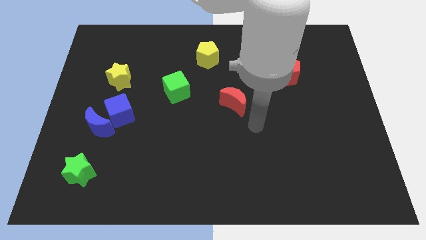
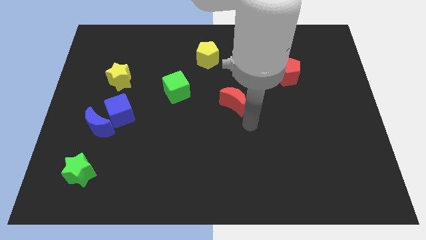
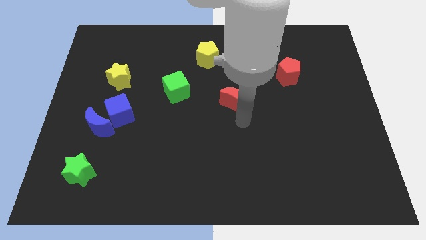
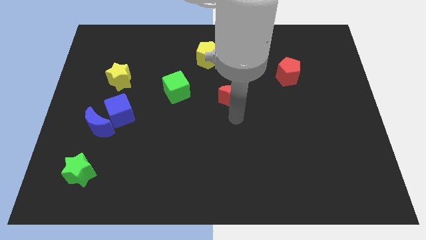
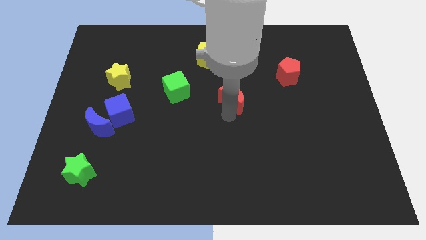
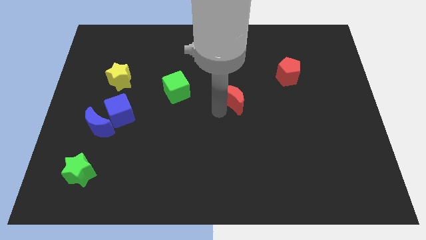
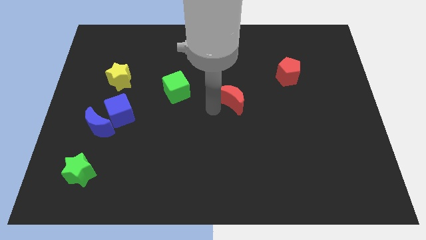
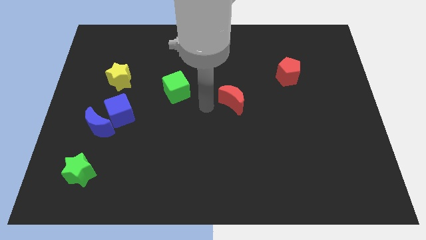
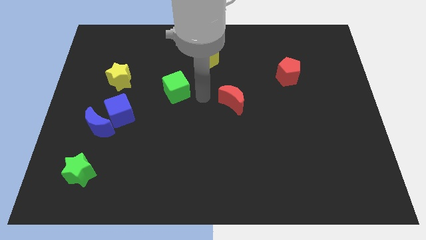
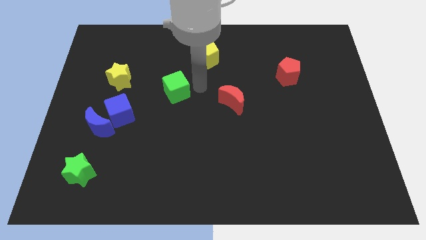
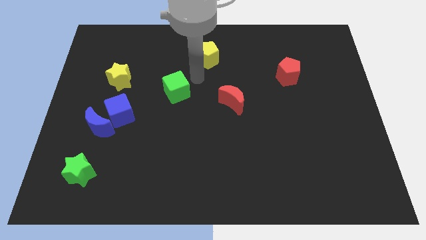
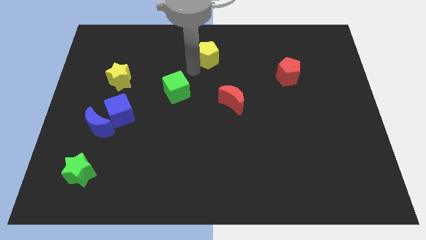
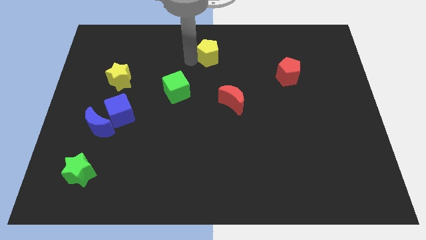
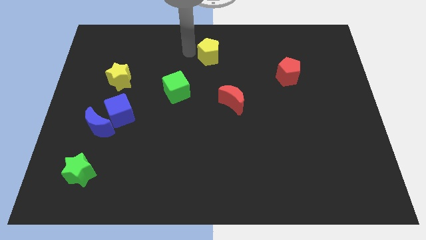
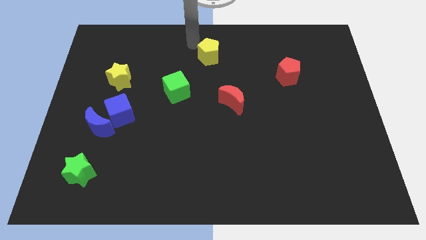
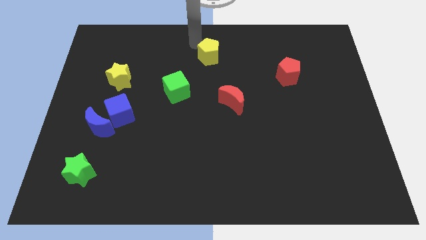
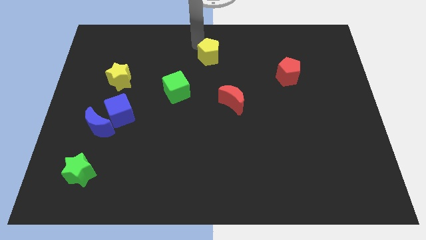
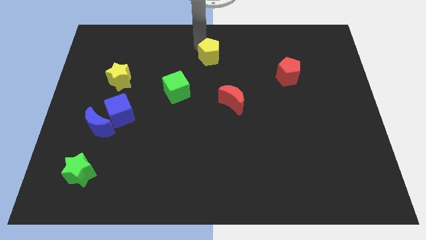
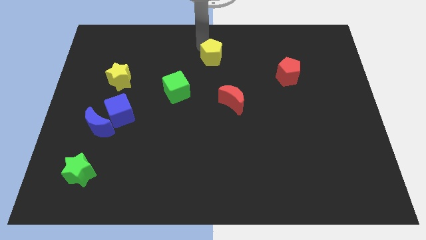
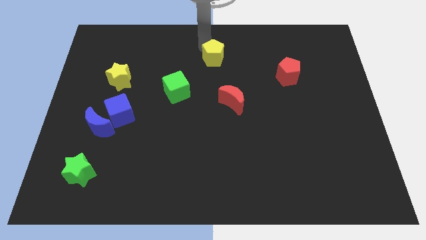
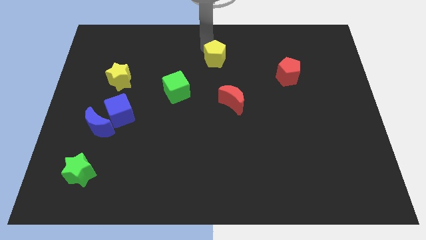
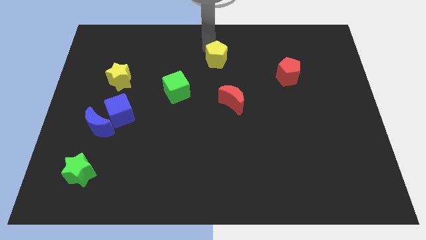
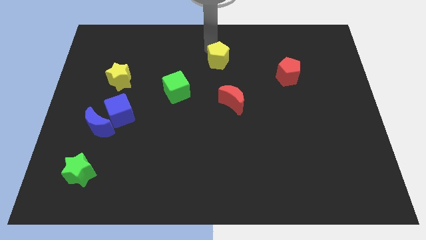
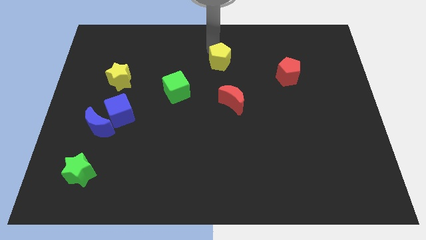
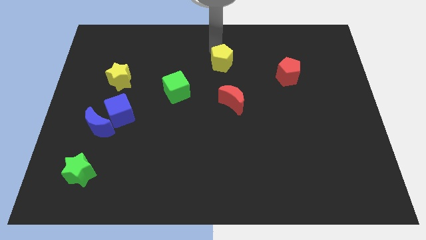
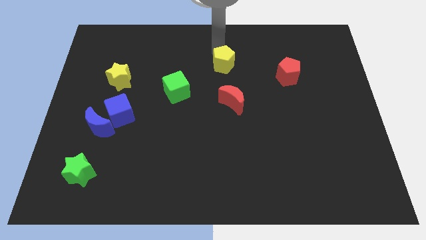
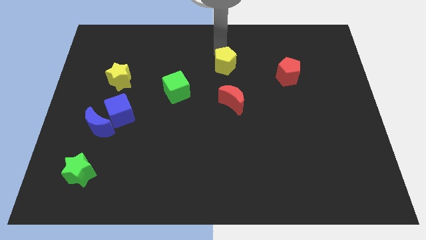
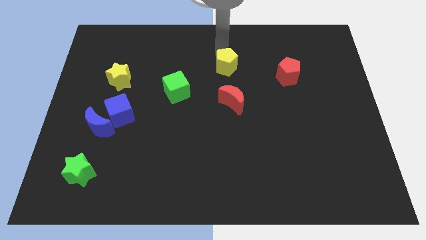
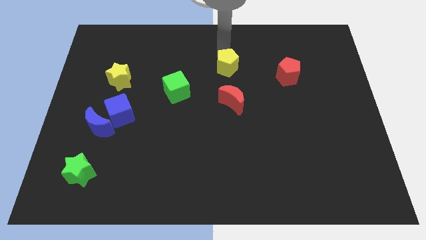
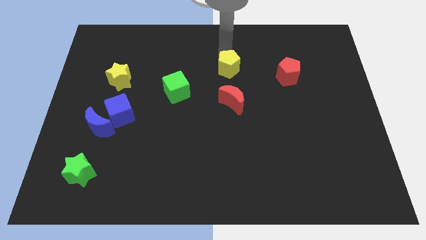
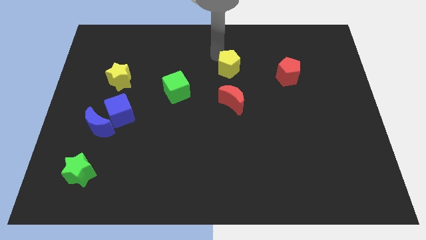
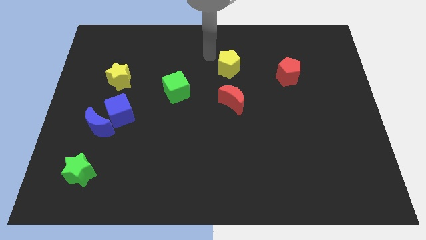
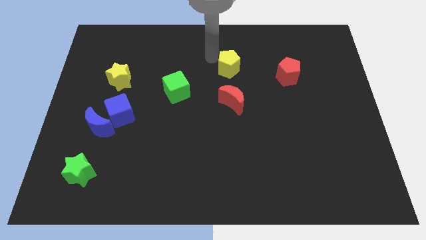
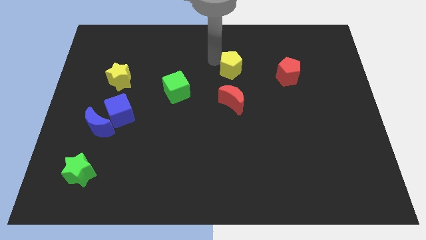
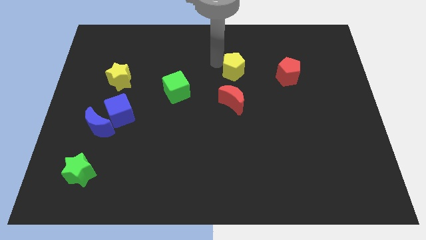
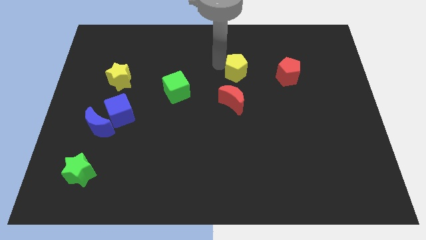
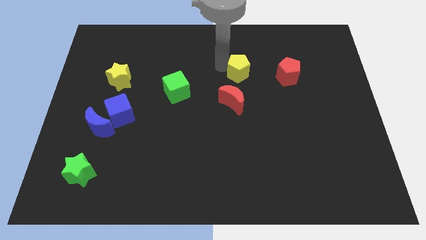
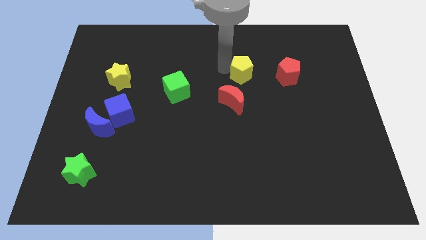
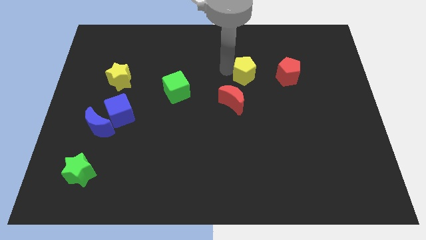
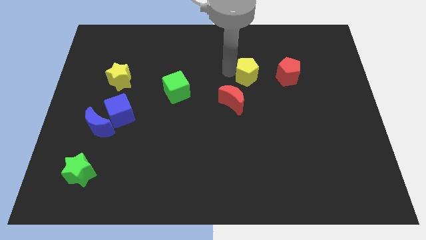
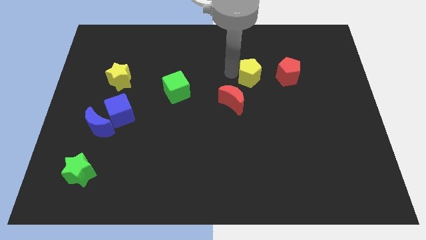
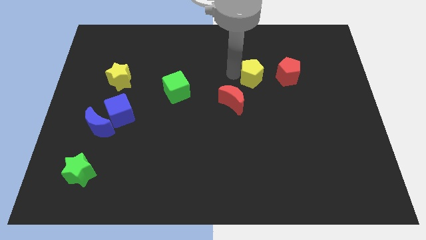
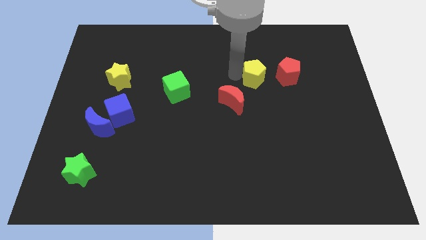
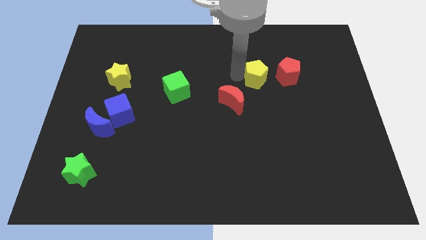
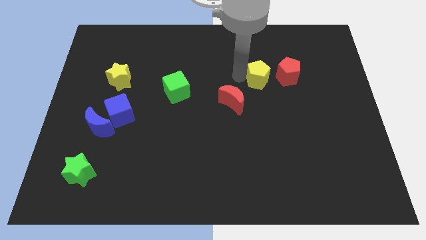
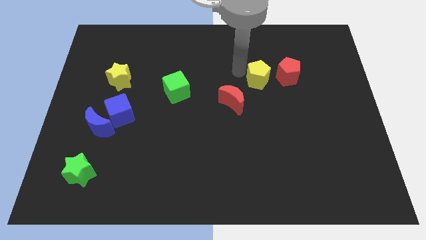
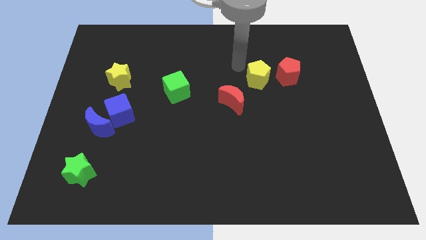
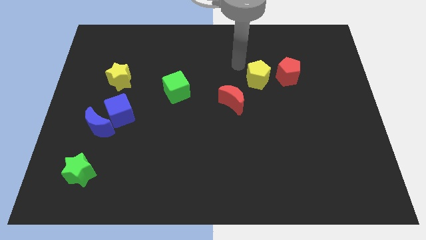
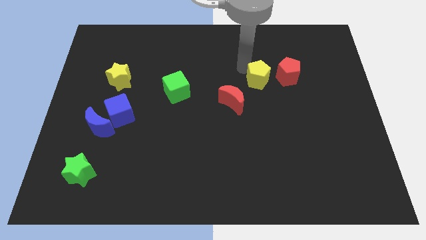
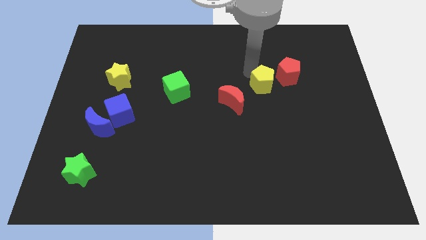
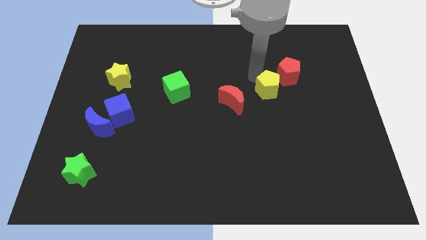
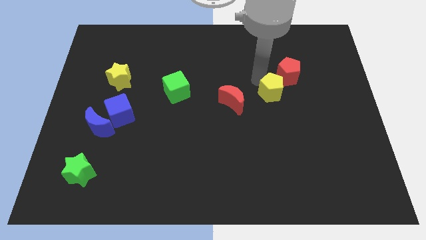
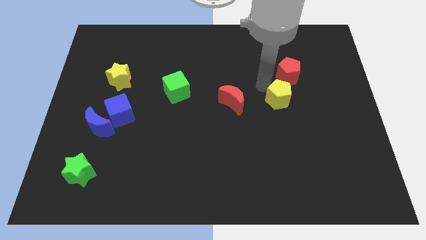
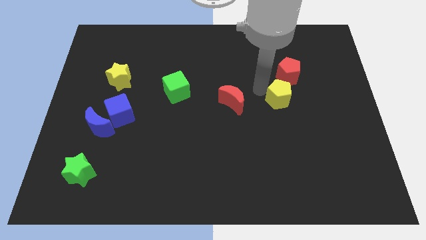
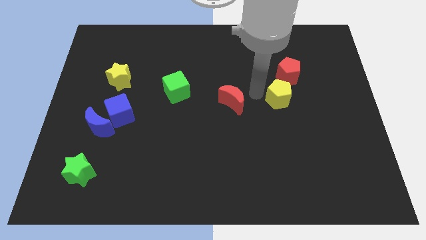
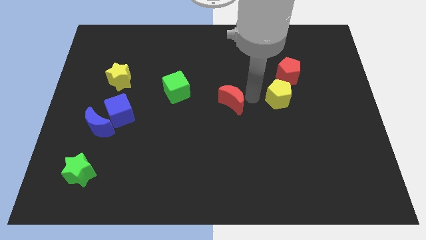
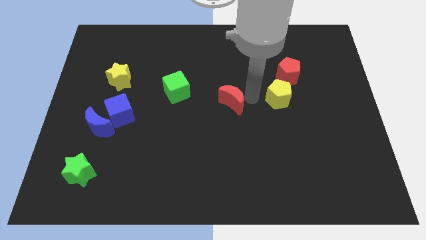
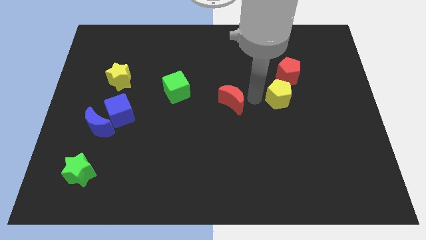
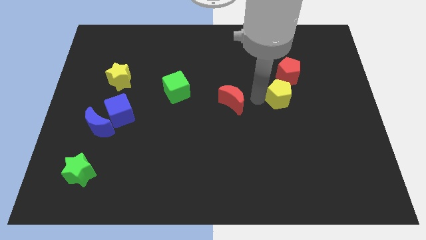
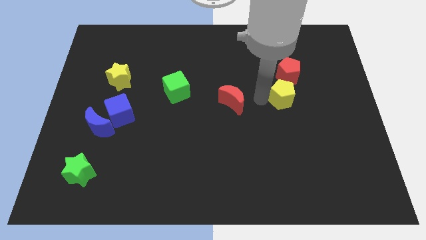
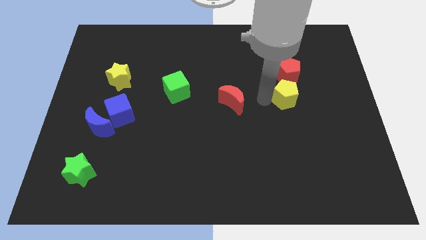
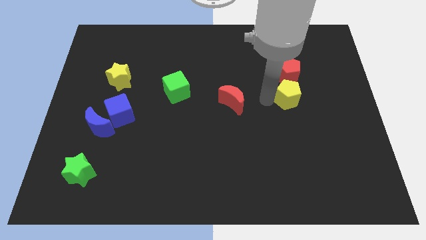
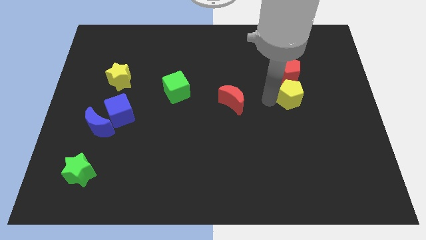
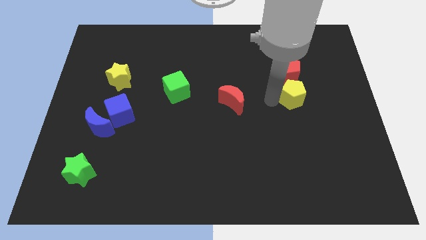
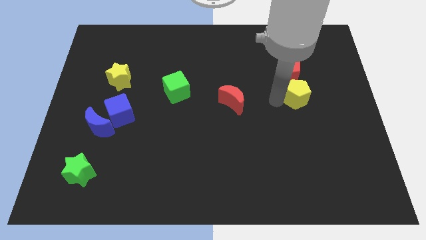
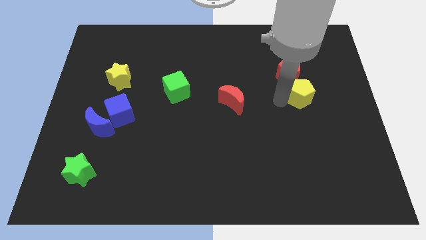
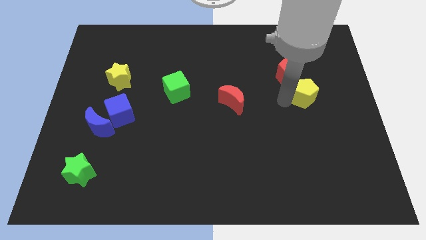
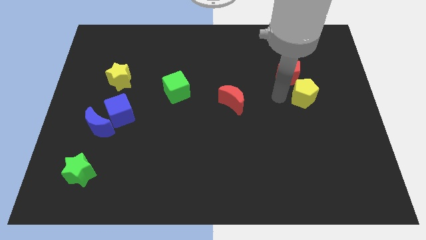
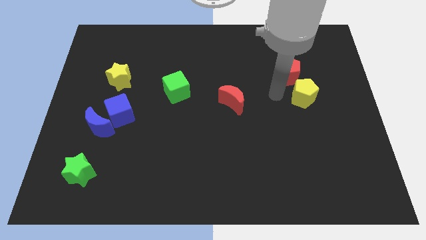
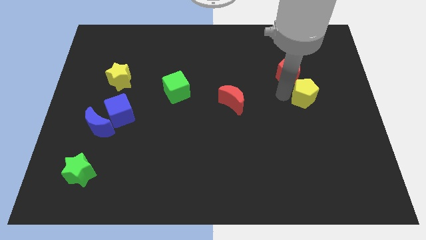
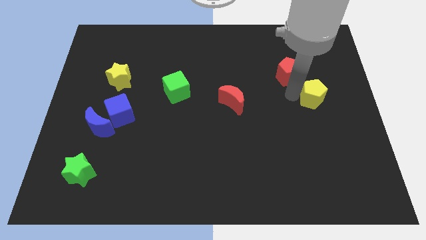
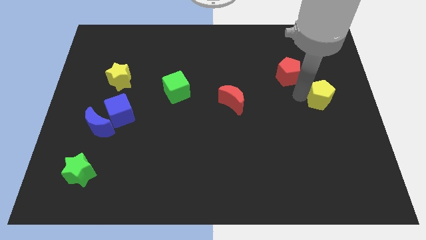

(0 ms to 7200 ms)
push the yellow pentagon to the right side of the board
